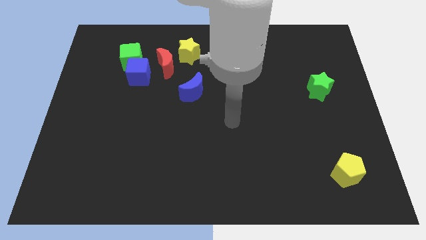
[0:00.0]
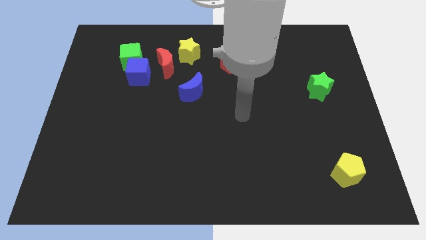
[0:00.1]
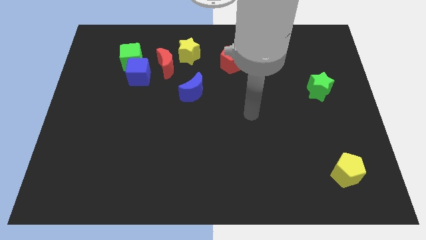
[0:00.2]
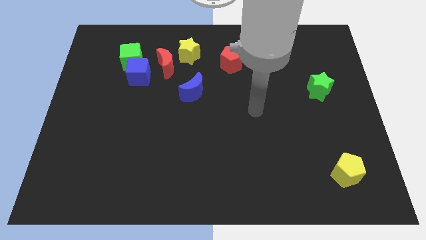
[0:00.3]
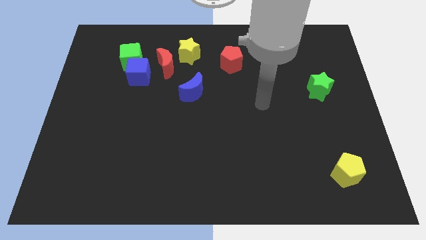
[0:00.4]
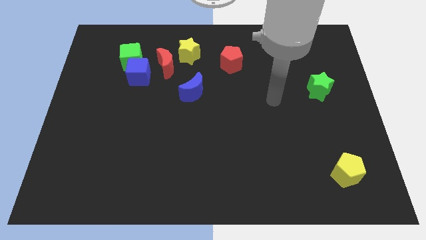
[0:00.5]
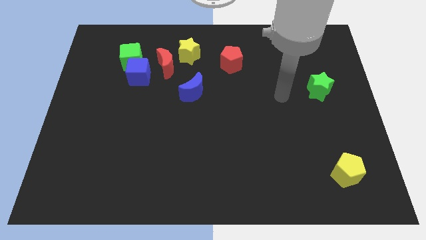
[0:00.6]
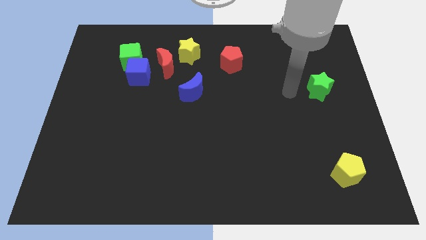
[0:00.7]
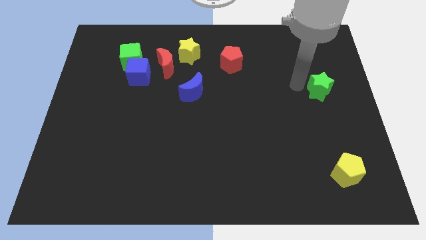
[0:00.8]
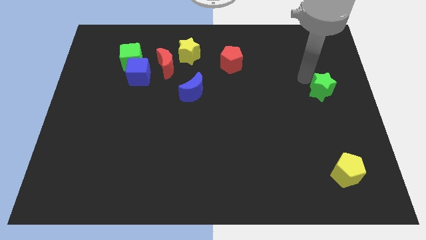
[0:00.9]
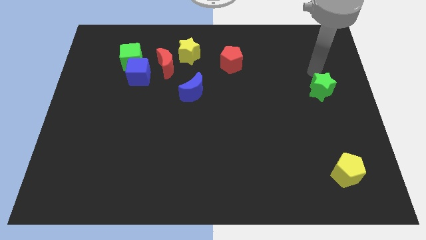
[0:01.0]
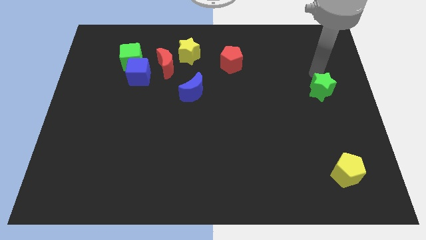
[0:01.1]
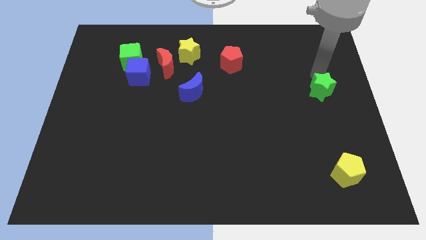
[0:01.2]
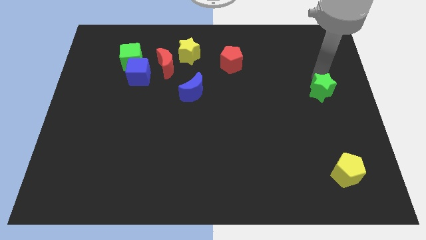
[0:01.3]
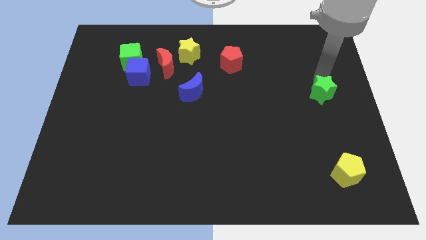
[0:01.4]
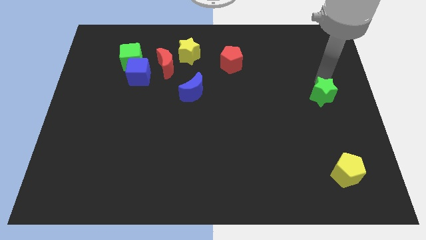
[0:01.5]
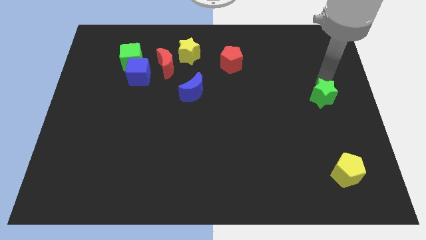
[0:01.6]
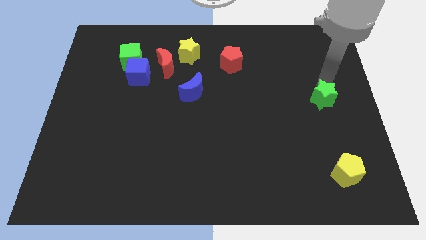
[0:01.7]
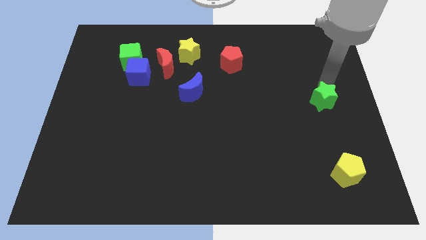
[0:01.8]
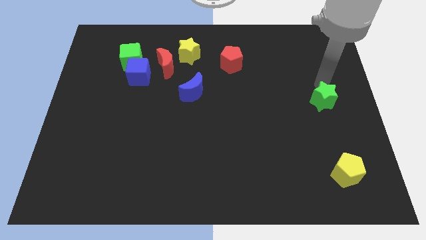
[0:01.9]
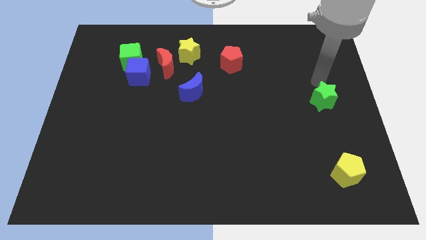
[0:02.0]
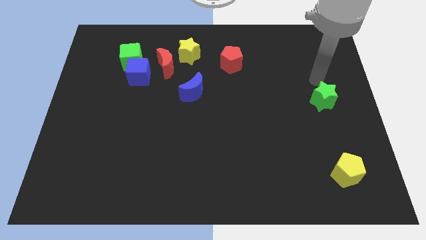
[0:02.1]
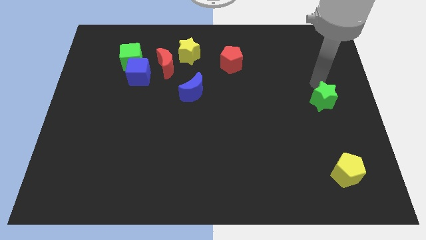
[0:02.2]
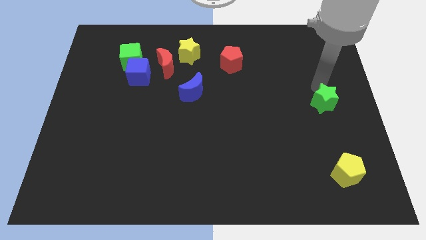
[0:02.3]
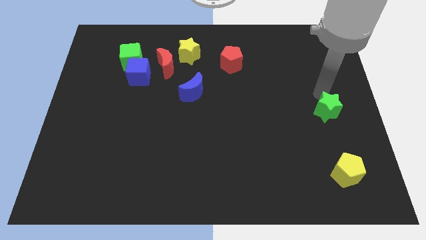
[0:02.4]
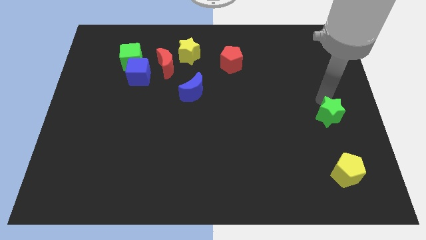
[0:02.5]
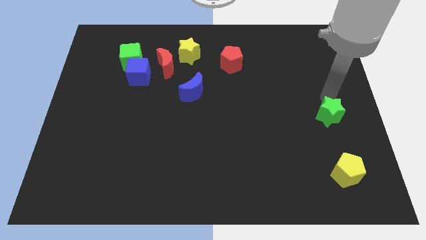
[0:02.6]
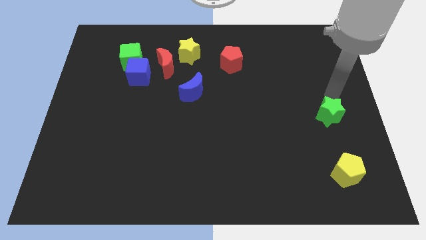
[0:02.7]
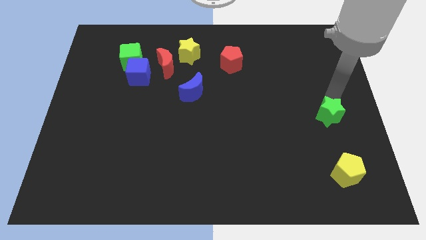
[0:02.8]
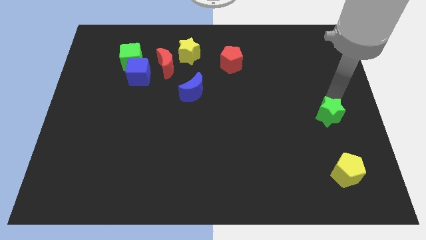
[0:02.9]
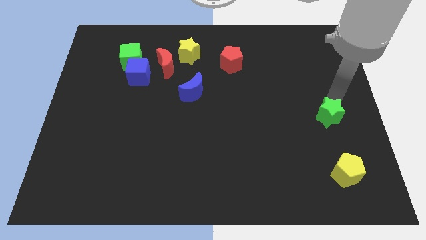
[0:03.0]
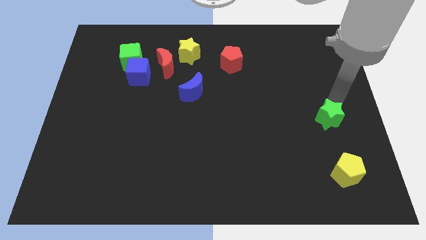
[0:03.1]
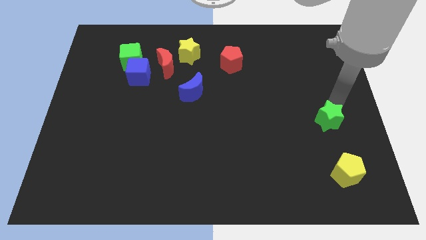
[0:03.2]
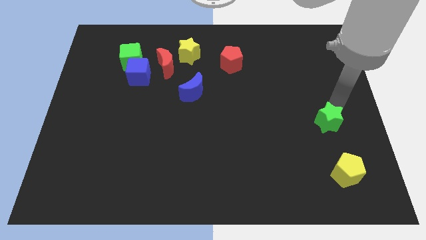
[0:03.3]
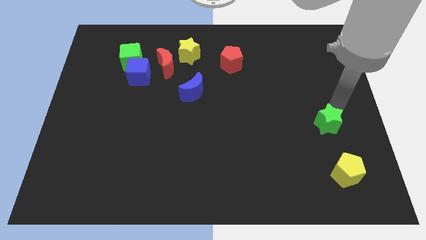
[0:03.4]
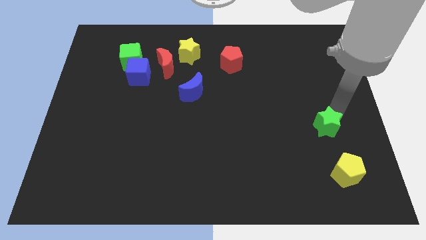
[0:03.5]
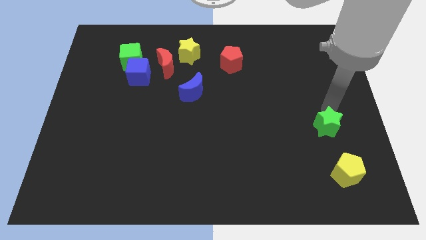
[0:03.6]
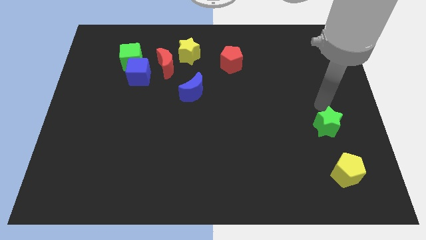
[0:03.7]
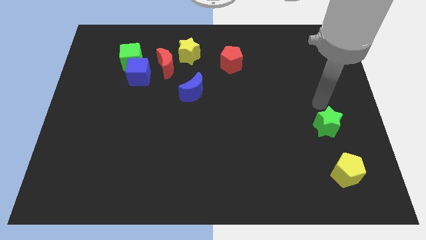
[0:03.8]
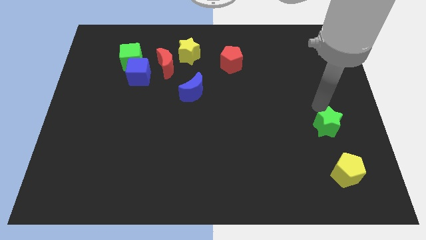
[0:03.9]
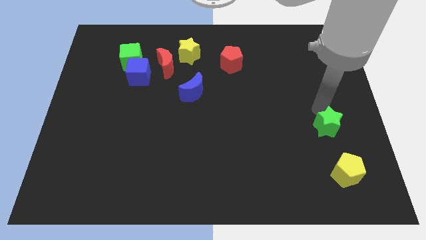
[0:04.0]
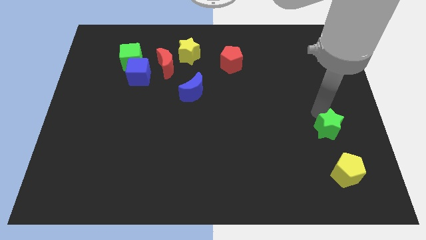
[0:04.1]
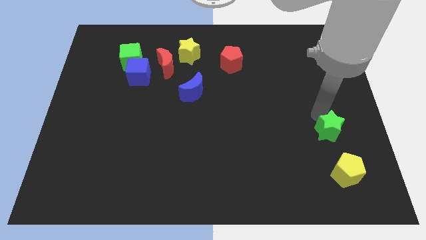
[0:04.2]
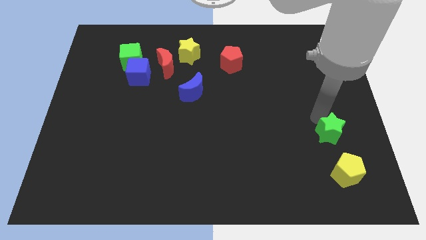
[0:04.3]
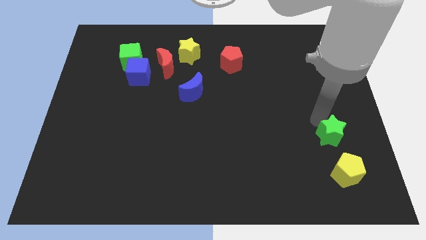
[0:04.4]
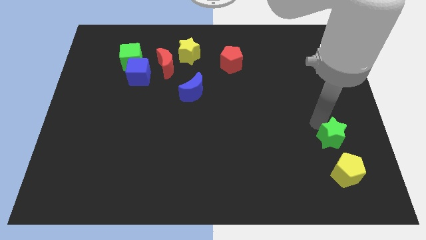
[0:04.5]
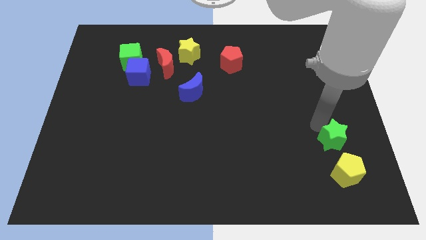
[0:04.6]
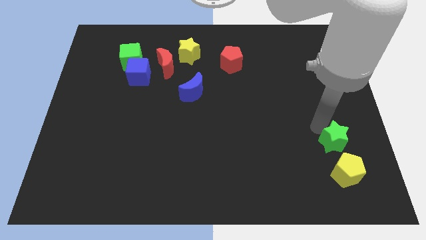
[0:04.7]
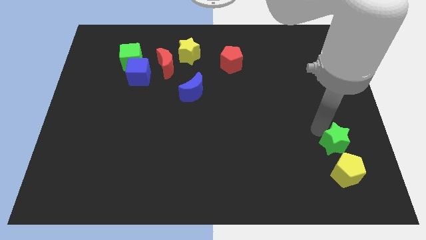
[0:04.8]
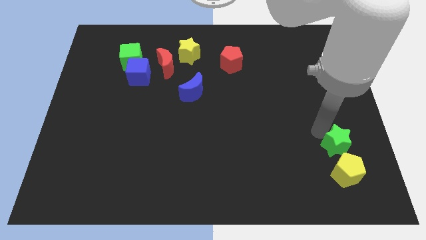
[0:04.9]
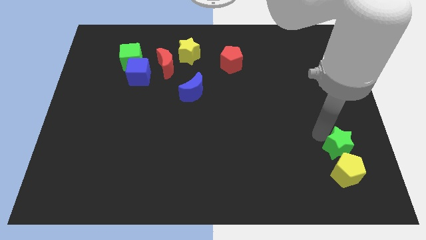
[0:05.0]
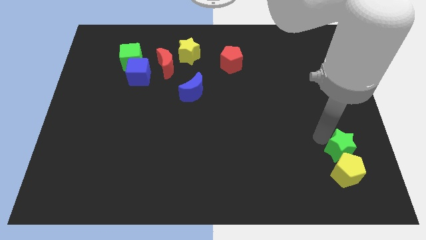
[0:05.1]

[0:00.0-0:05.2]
move the green star close to the yellow pentagon

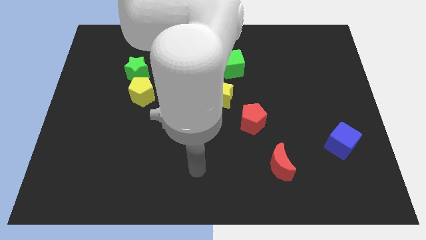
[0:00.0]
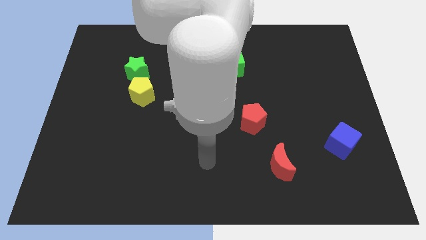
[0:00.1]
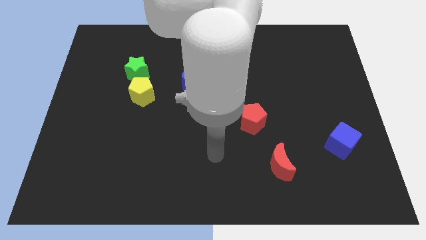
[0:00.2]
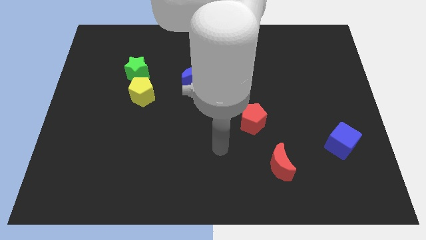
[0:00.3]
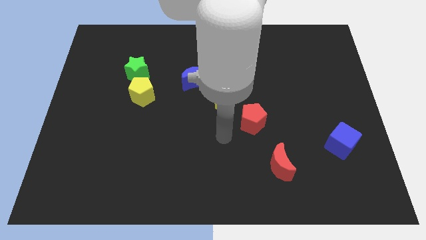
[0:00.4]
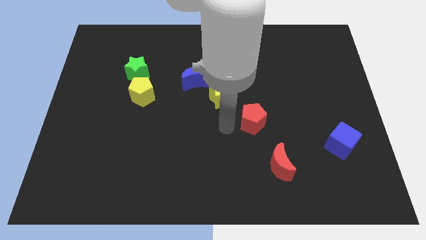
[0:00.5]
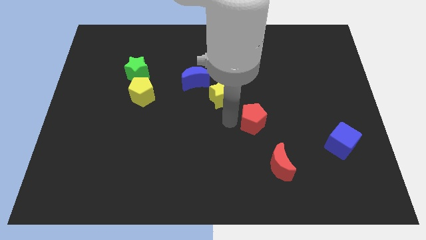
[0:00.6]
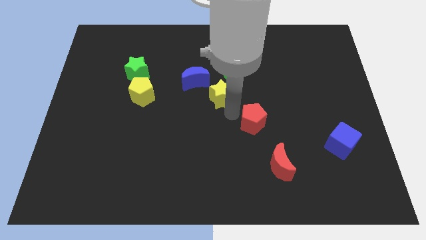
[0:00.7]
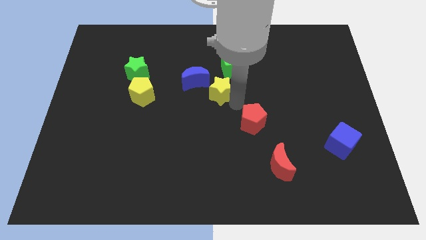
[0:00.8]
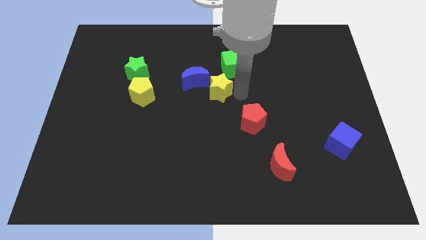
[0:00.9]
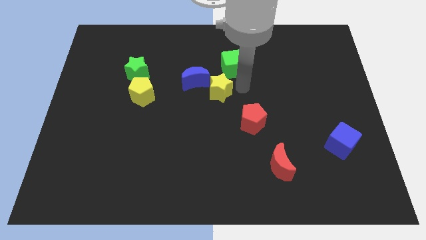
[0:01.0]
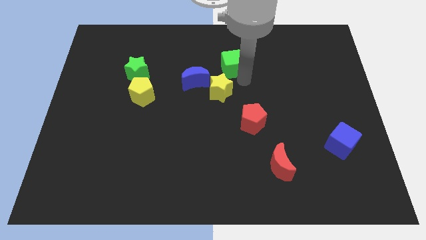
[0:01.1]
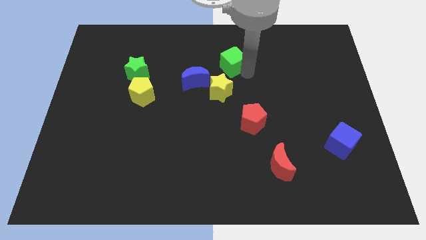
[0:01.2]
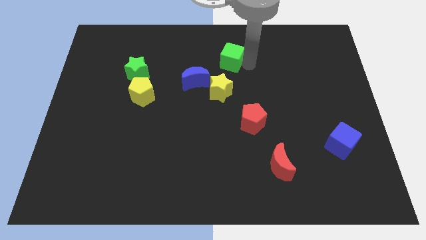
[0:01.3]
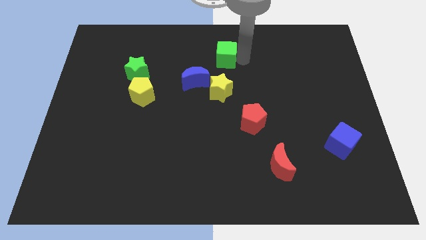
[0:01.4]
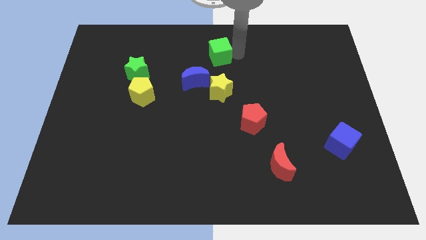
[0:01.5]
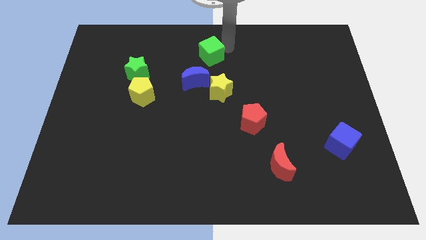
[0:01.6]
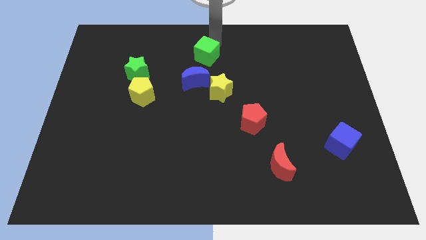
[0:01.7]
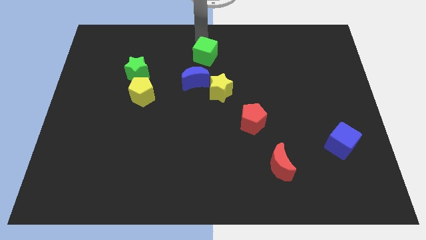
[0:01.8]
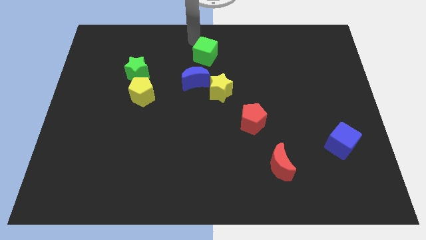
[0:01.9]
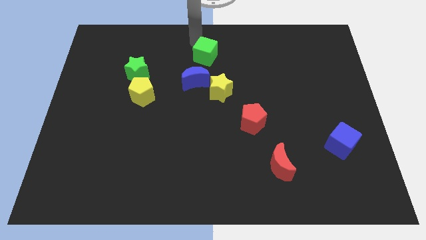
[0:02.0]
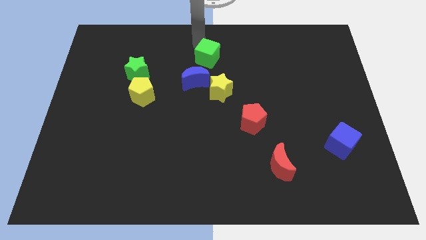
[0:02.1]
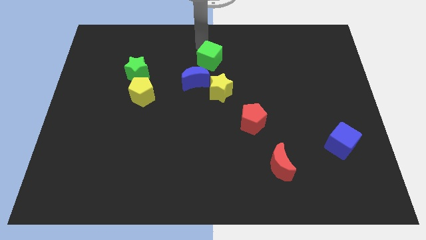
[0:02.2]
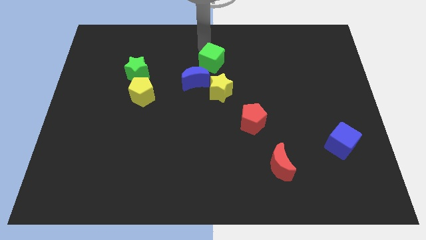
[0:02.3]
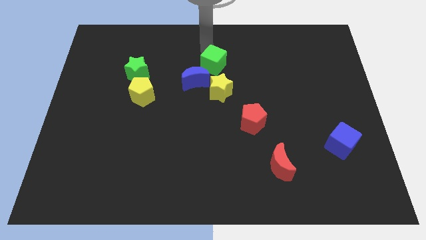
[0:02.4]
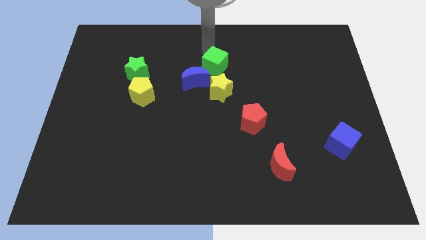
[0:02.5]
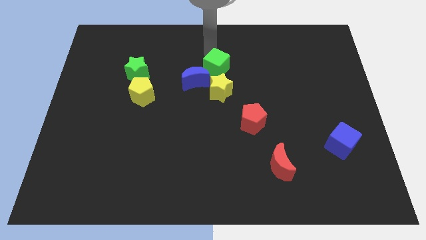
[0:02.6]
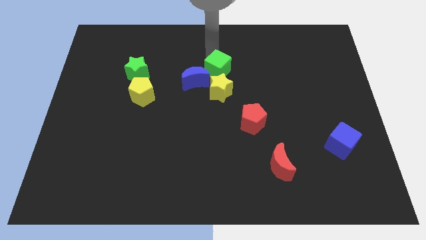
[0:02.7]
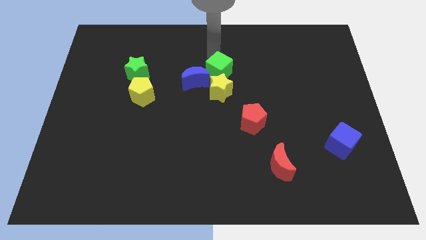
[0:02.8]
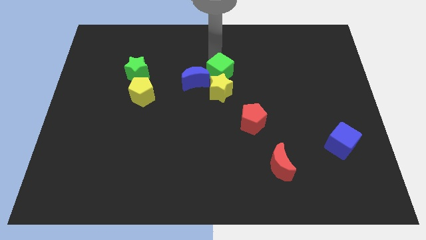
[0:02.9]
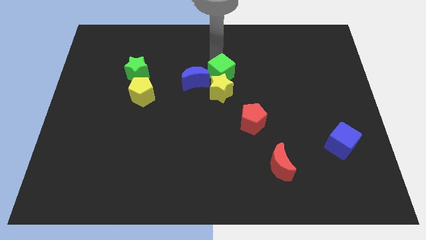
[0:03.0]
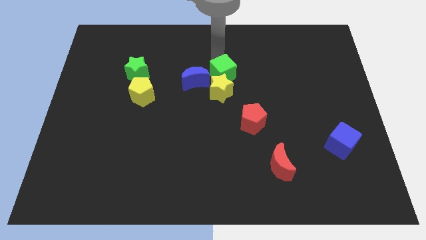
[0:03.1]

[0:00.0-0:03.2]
put the green cube close to the yellow star
